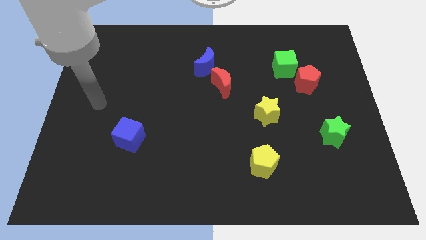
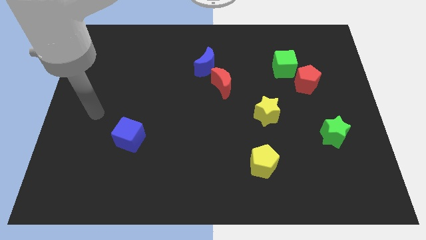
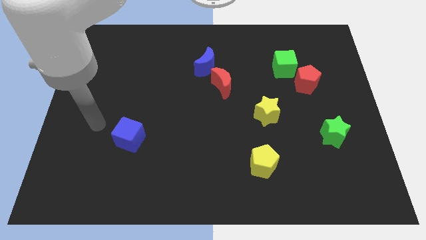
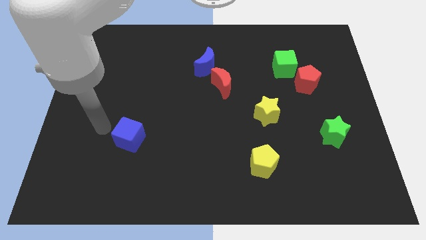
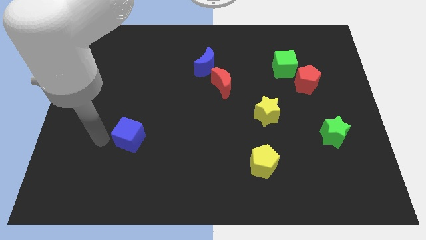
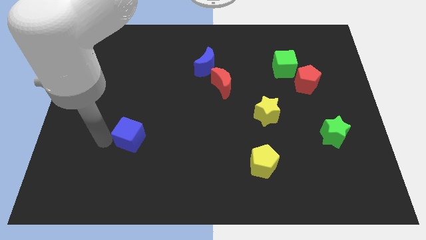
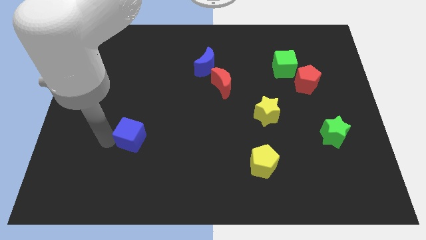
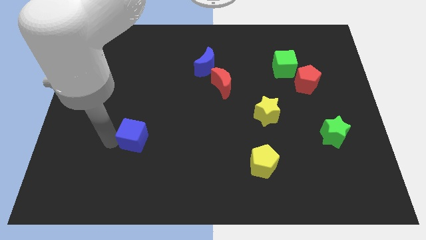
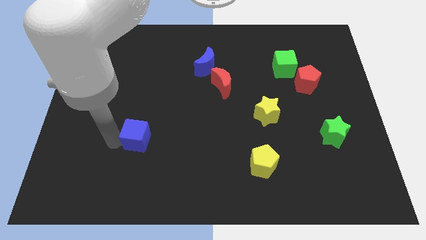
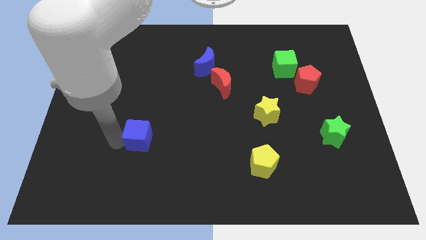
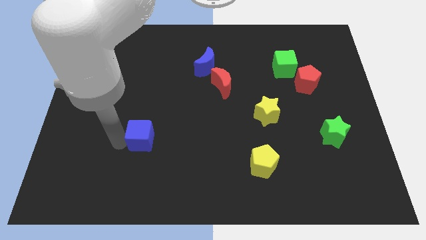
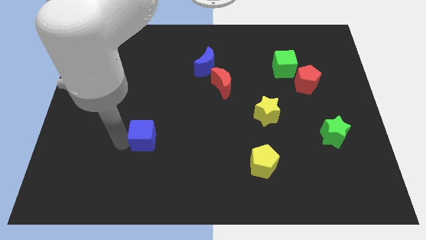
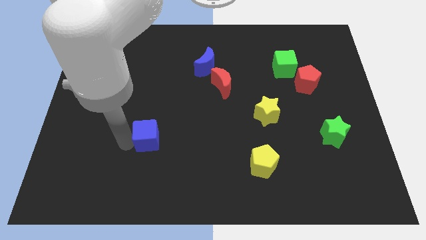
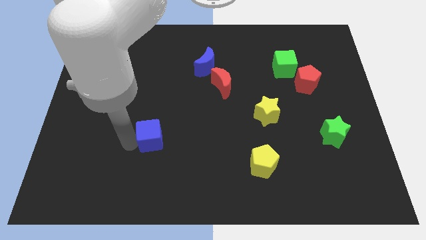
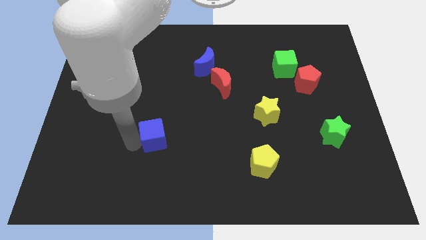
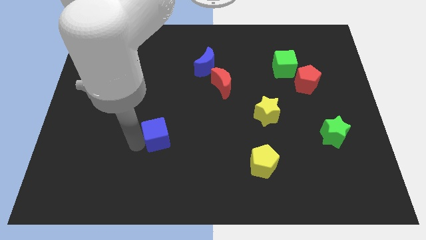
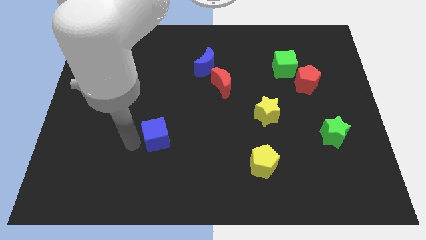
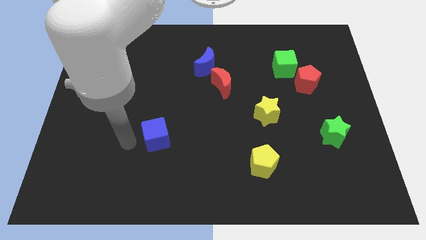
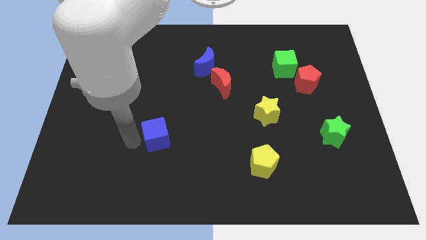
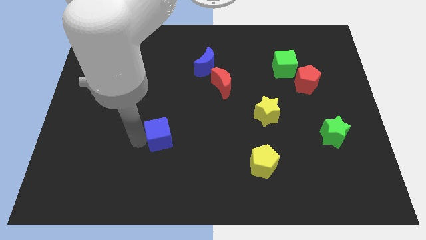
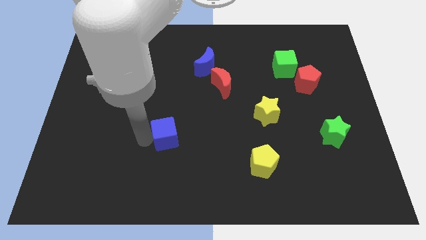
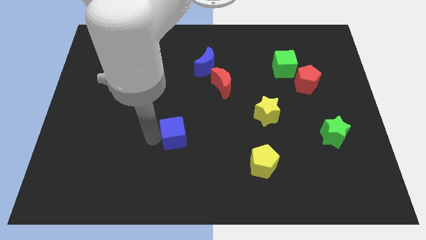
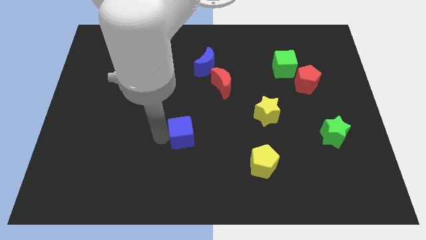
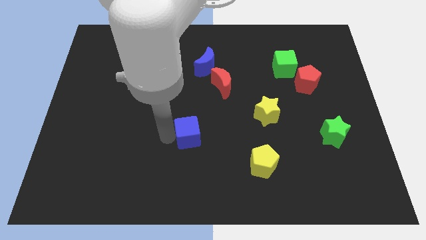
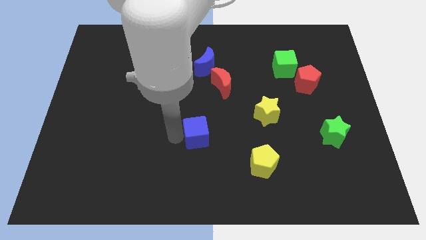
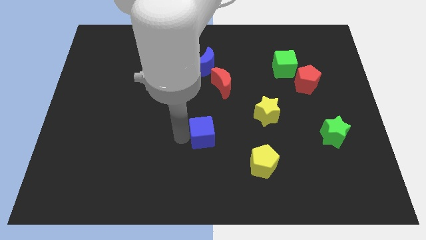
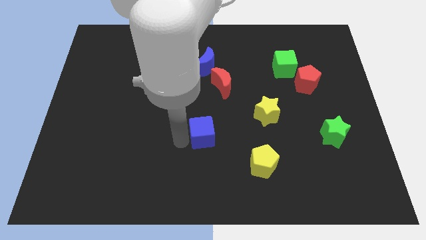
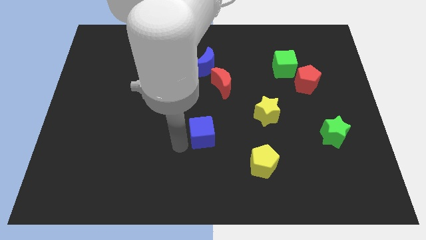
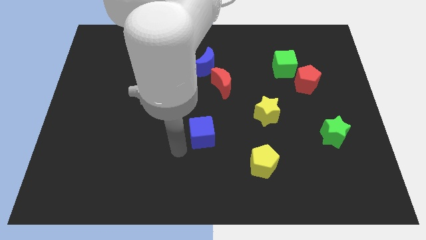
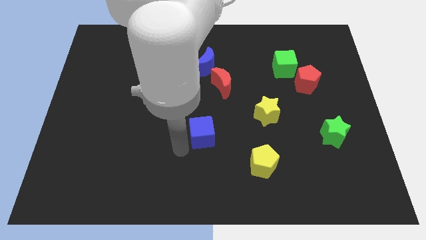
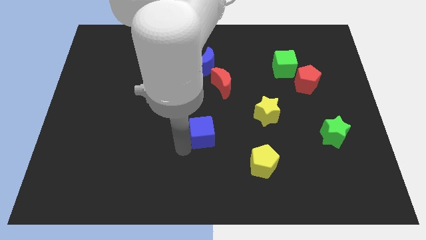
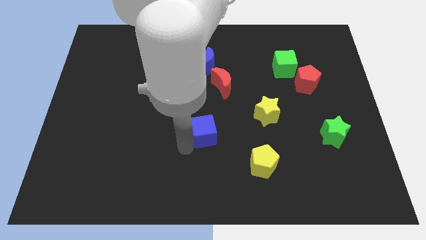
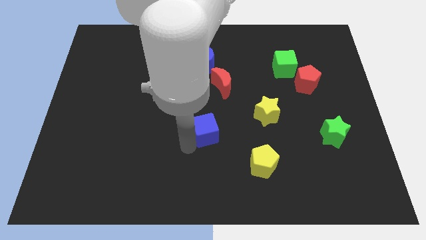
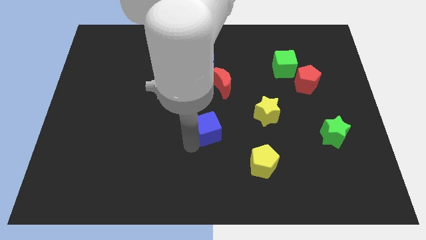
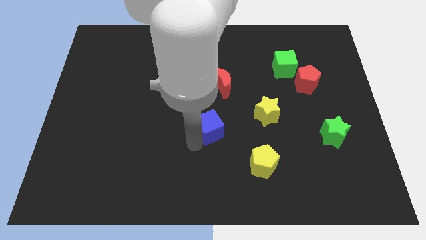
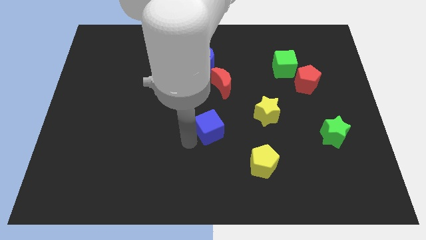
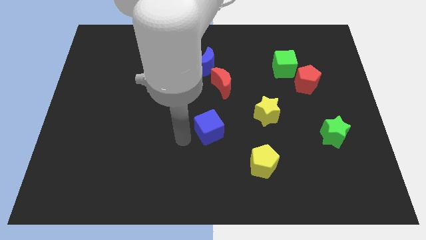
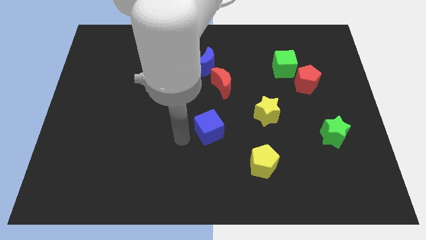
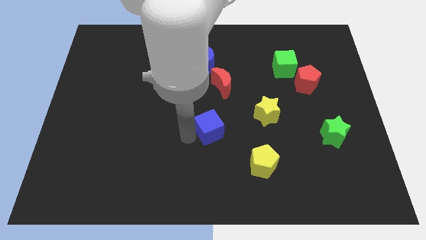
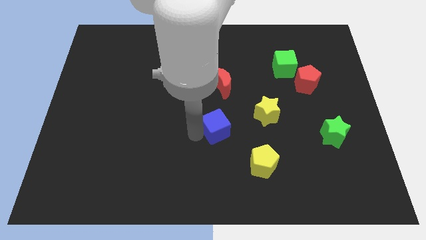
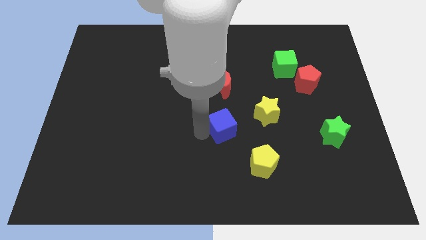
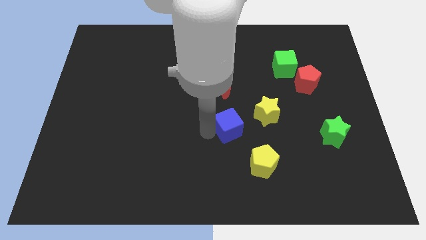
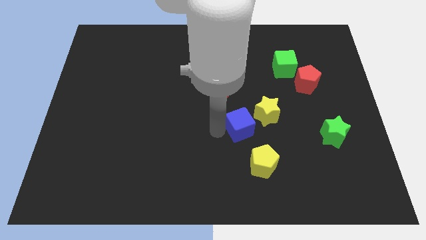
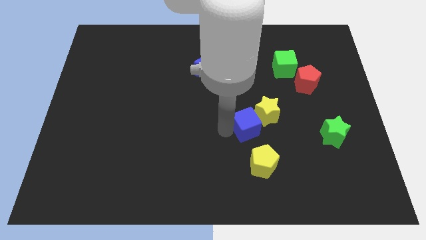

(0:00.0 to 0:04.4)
move the blue cube towards the yellow star

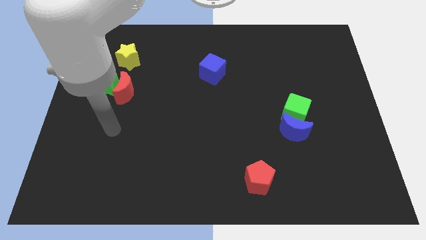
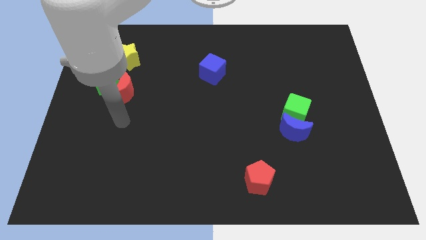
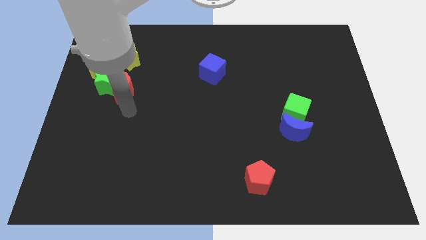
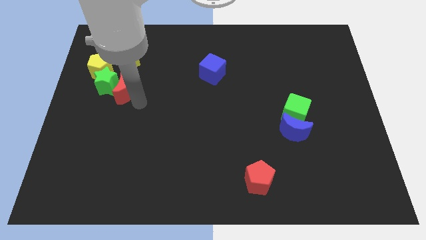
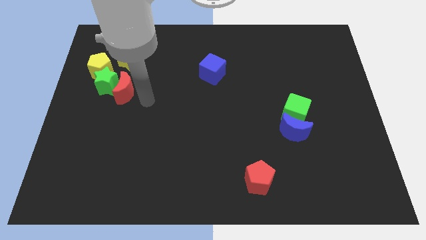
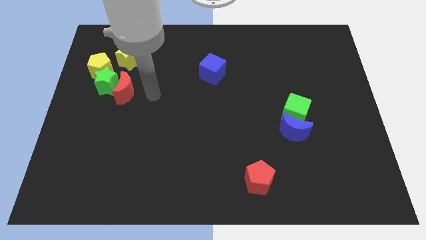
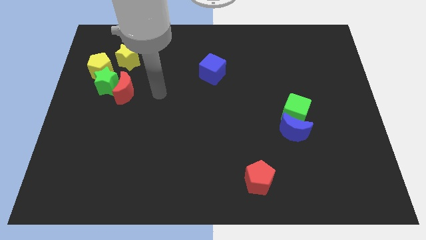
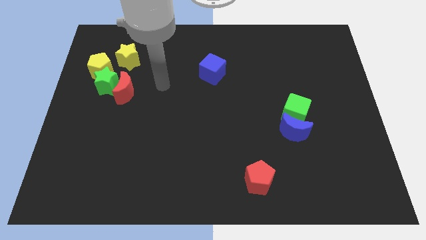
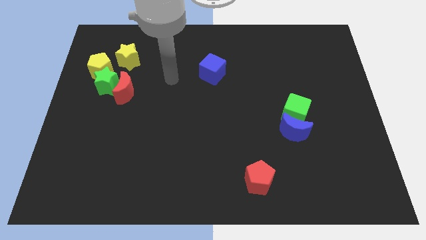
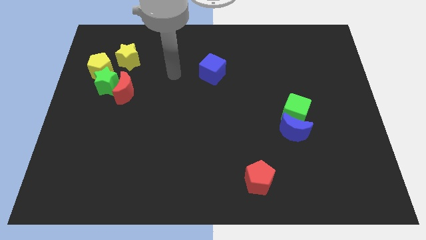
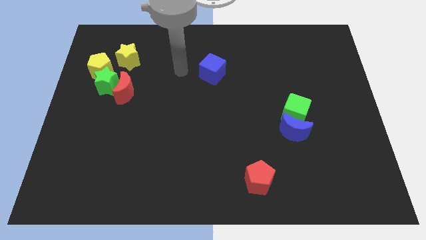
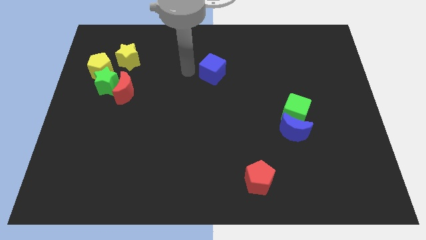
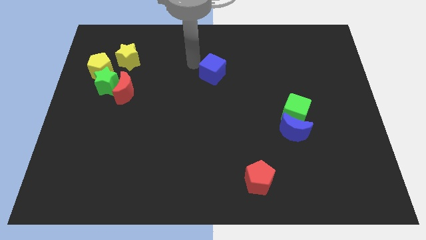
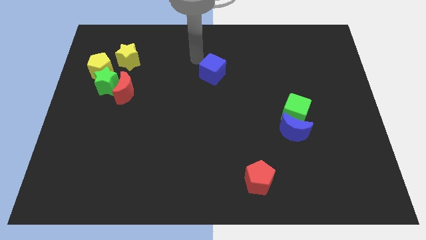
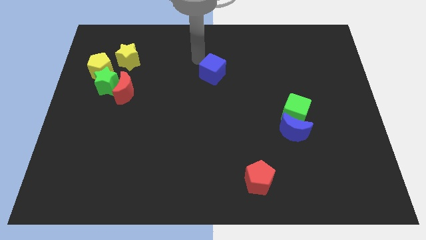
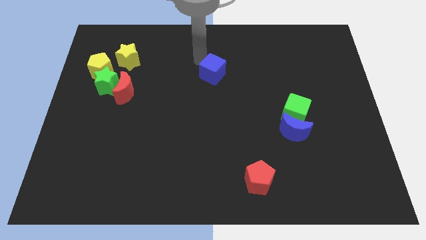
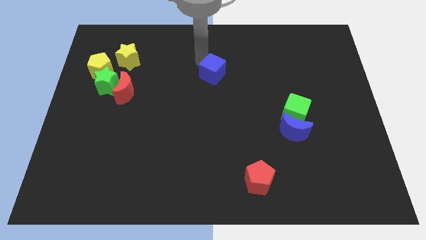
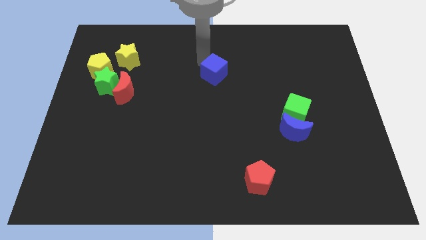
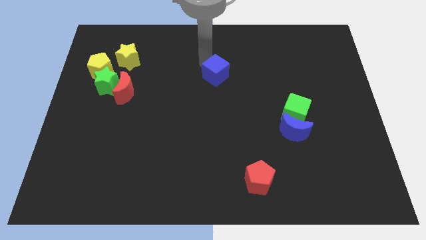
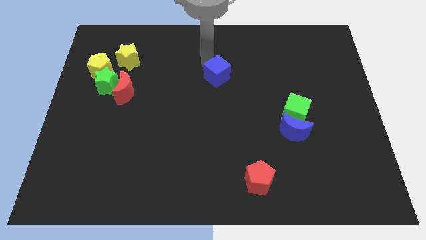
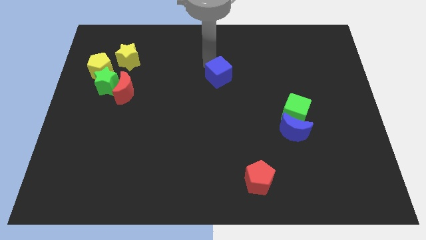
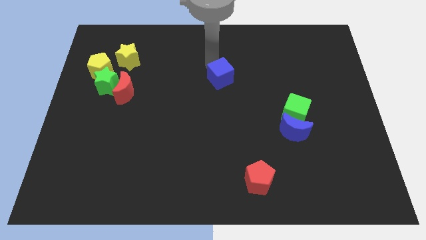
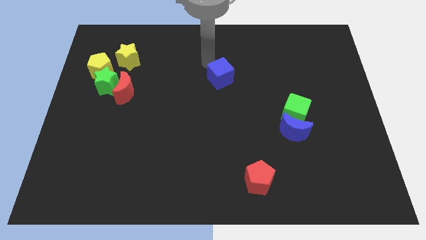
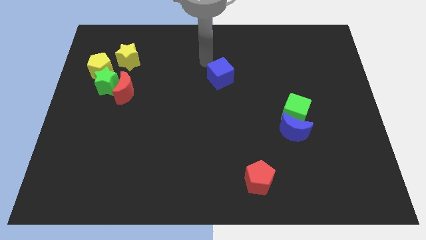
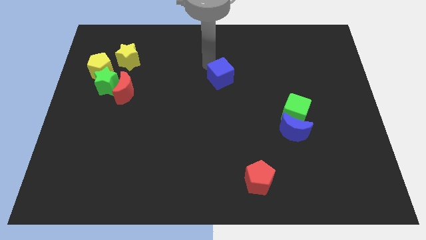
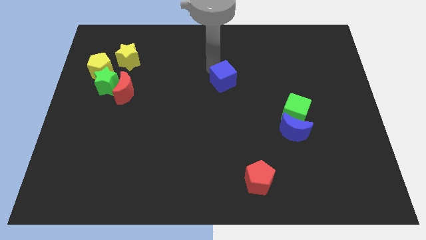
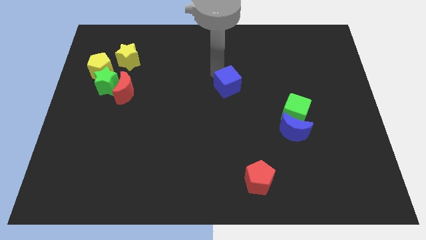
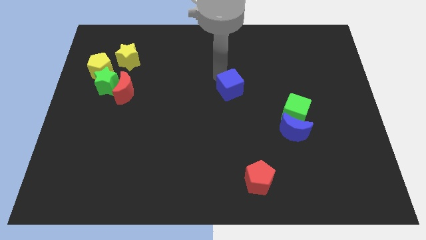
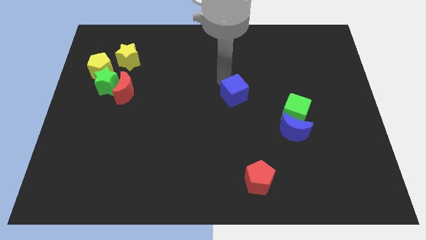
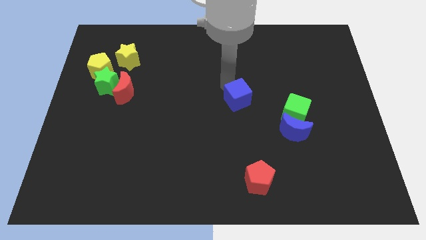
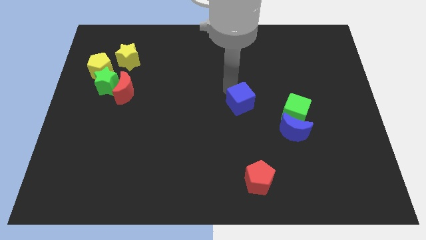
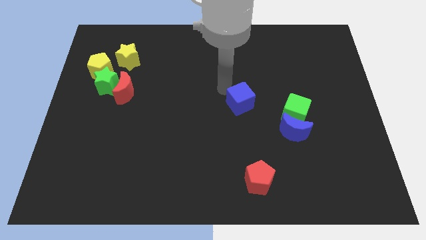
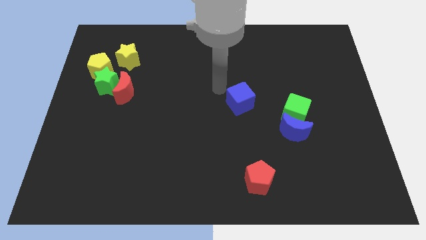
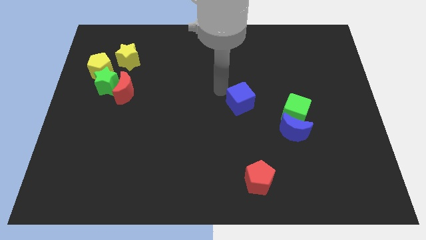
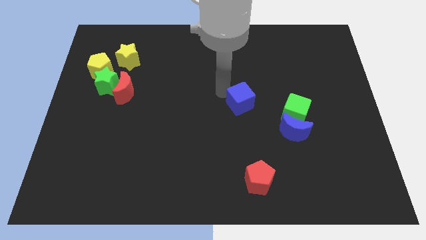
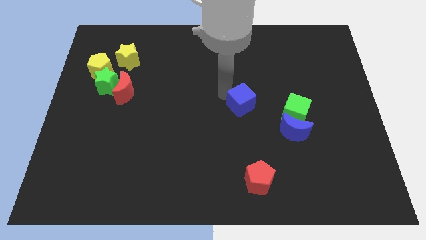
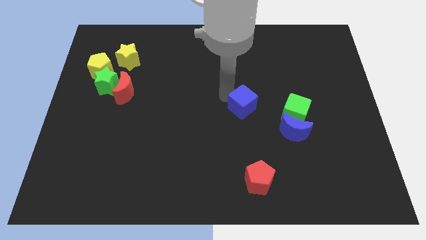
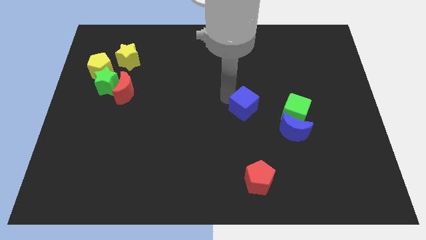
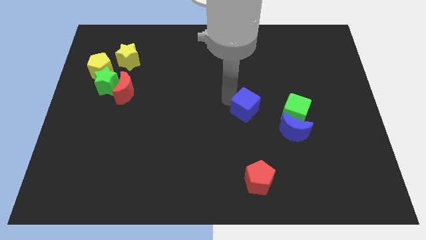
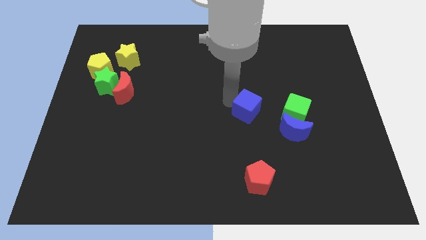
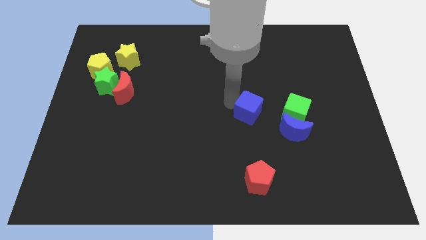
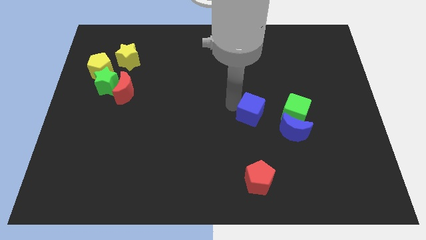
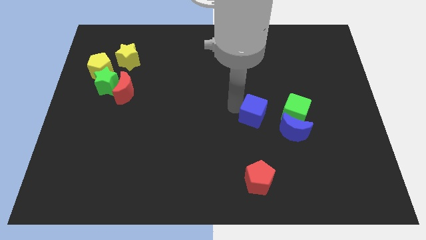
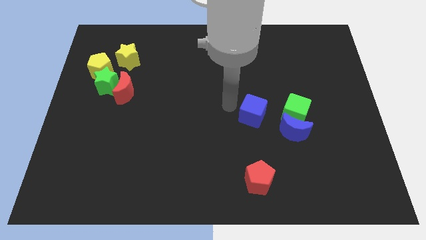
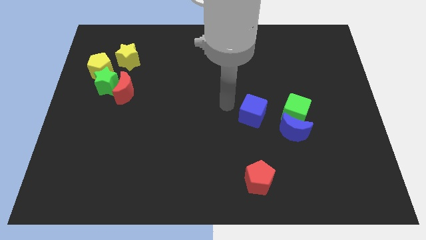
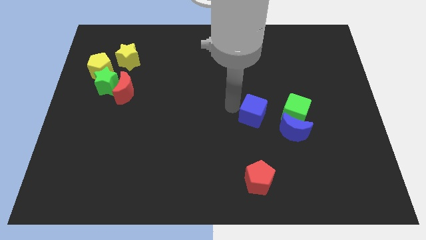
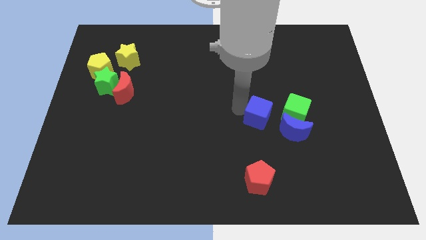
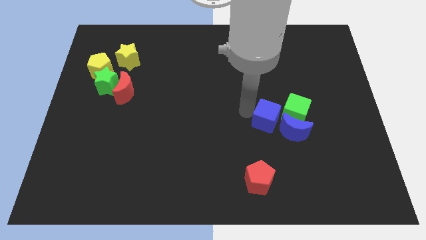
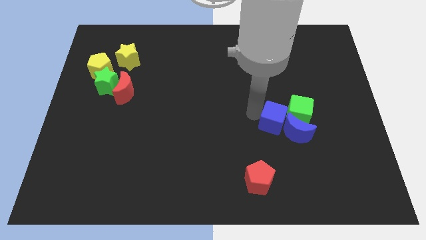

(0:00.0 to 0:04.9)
slide the blue cube close to the blue moon
